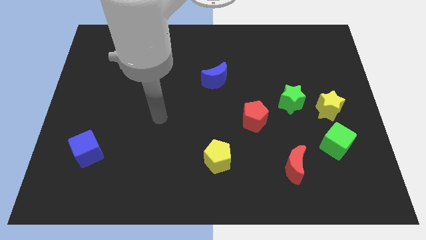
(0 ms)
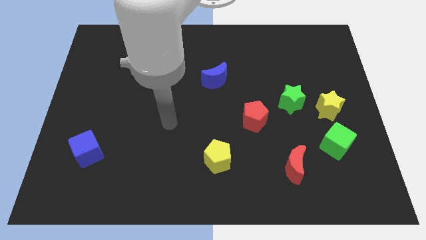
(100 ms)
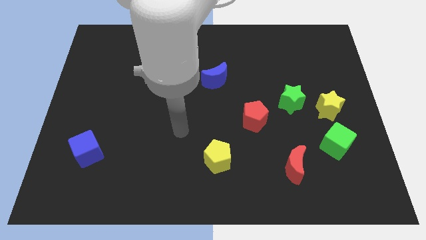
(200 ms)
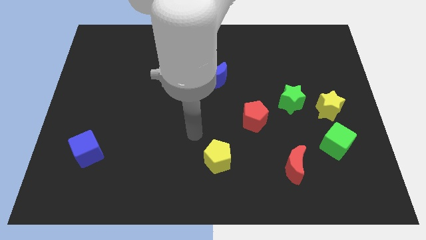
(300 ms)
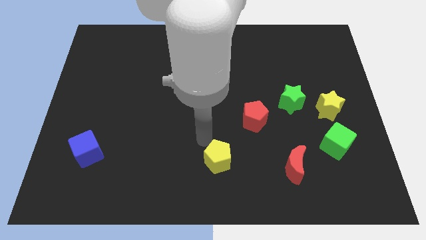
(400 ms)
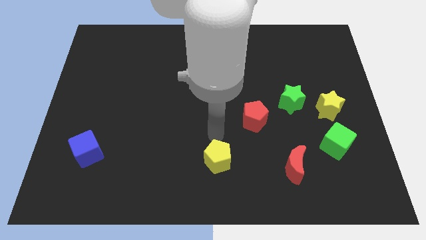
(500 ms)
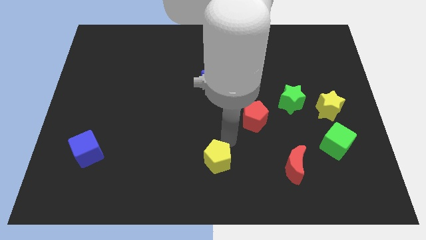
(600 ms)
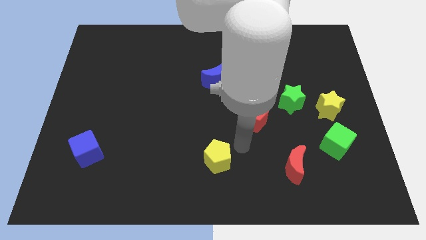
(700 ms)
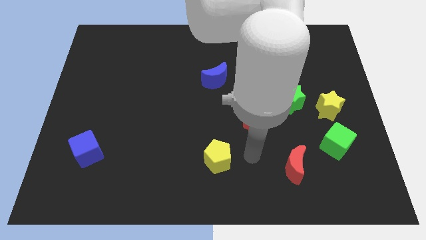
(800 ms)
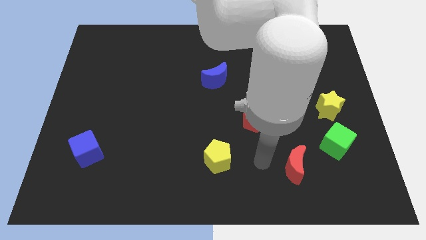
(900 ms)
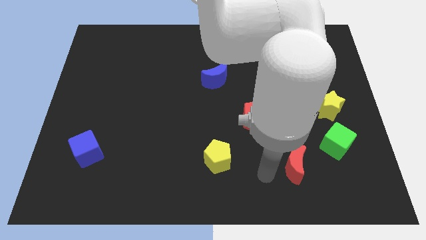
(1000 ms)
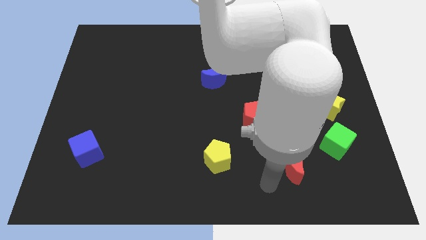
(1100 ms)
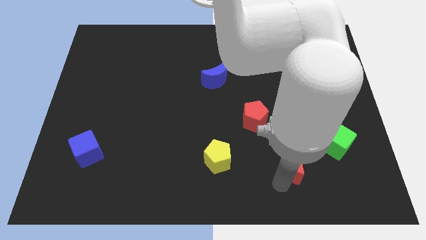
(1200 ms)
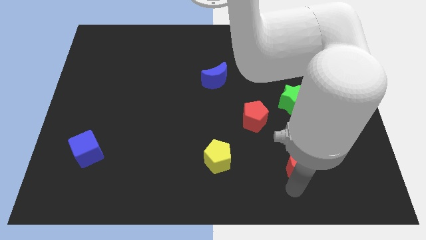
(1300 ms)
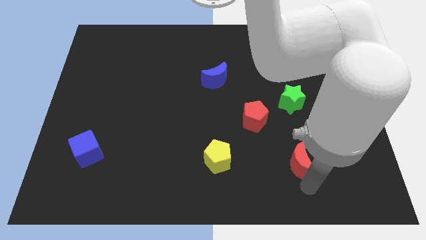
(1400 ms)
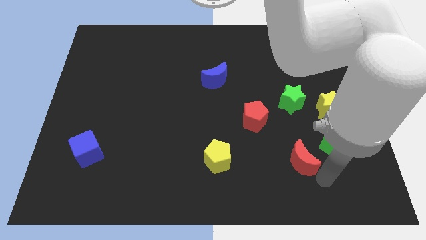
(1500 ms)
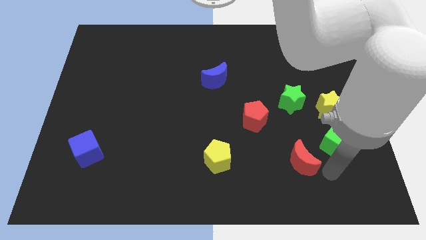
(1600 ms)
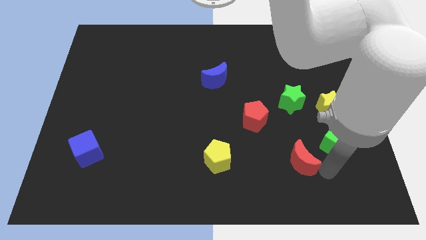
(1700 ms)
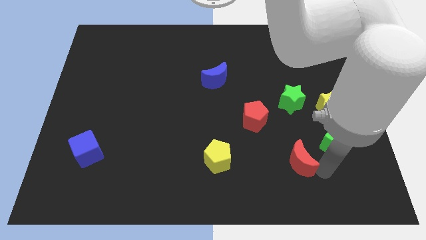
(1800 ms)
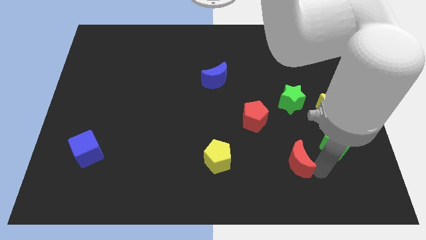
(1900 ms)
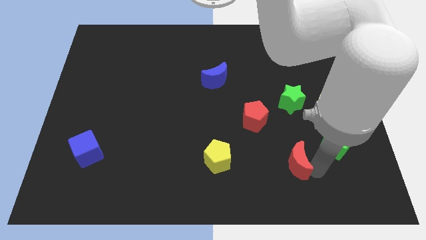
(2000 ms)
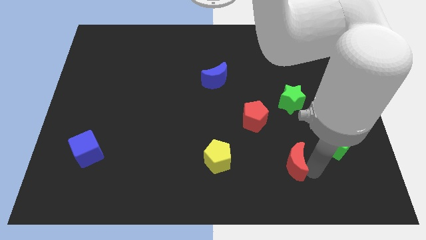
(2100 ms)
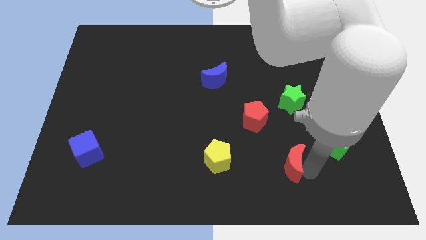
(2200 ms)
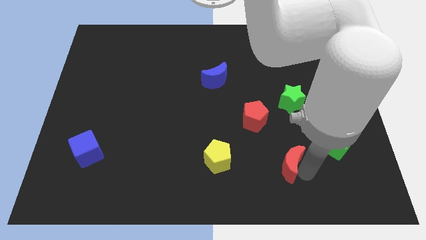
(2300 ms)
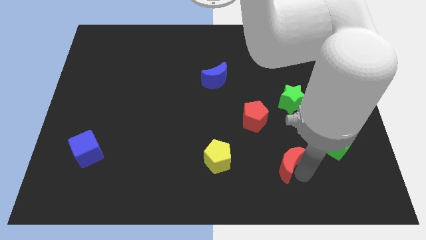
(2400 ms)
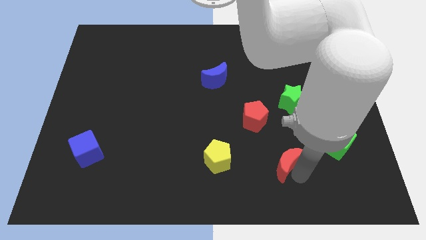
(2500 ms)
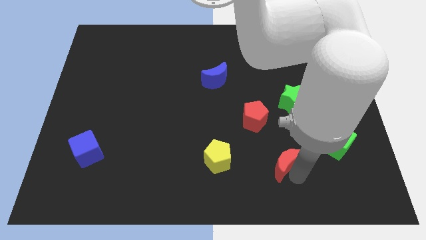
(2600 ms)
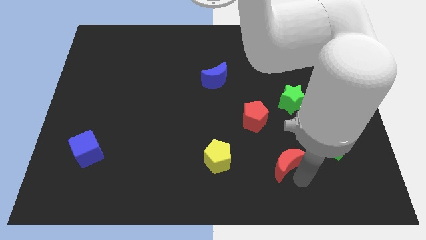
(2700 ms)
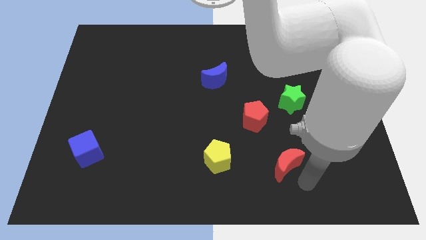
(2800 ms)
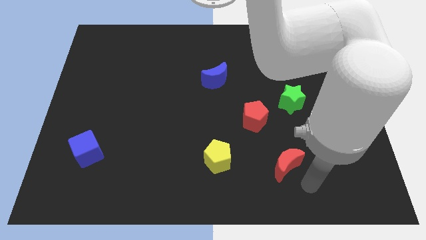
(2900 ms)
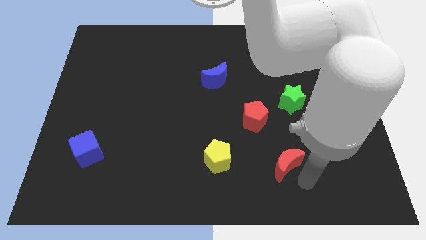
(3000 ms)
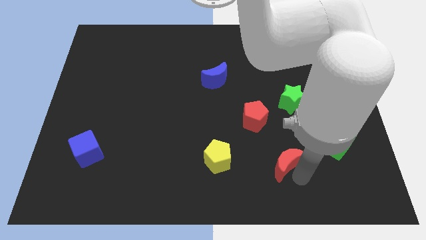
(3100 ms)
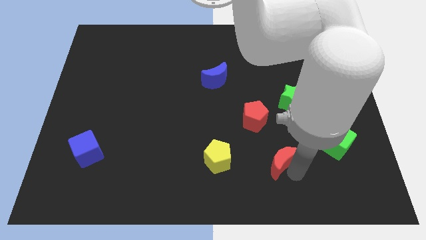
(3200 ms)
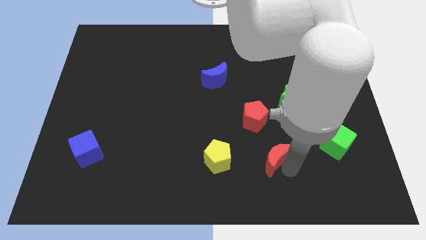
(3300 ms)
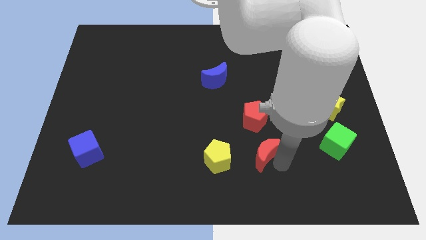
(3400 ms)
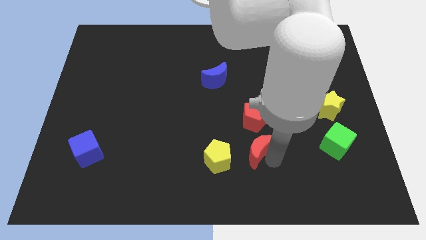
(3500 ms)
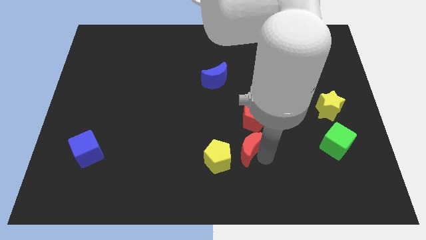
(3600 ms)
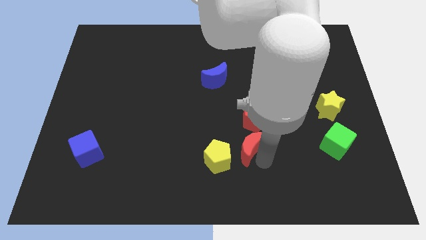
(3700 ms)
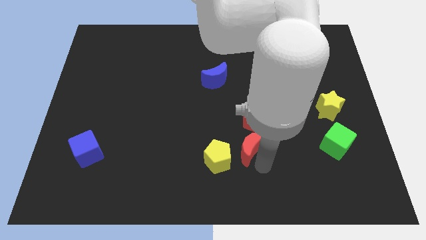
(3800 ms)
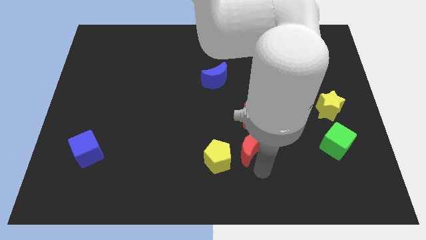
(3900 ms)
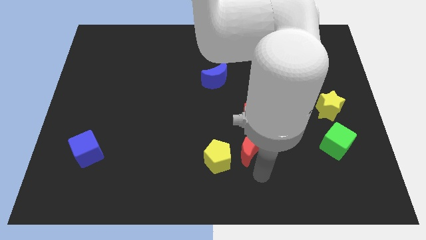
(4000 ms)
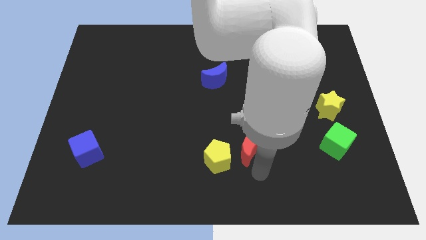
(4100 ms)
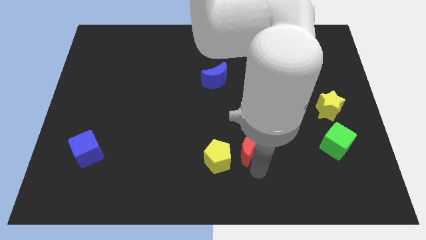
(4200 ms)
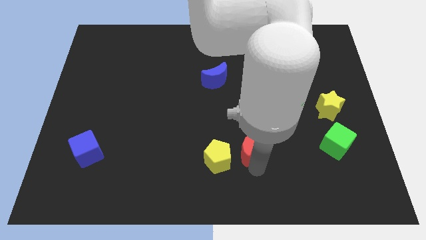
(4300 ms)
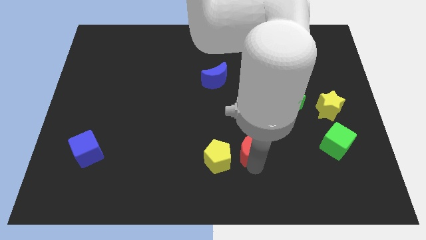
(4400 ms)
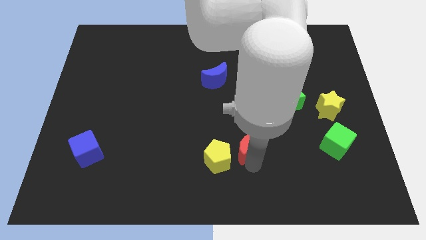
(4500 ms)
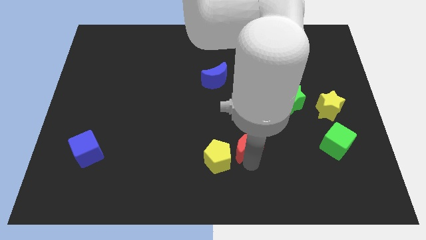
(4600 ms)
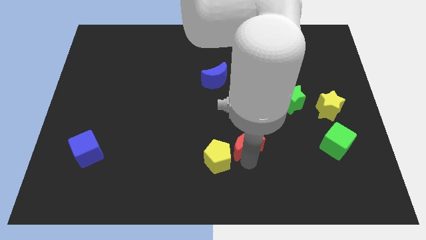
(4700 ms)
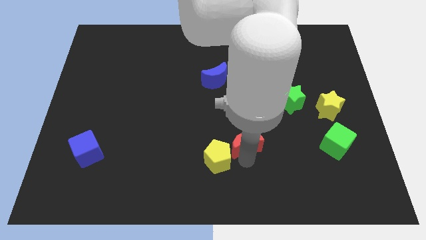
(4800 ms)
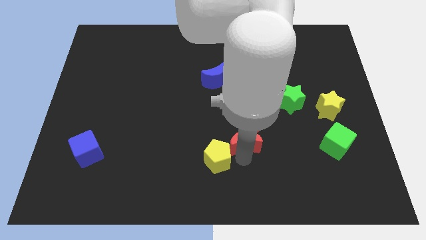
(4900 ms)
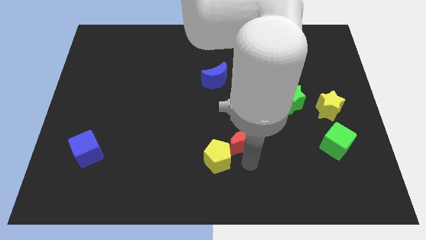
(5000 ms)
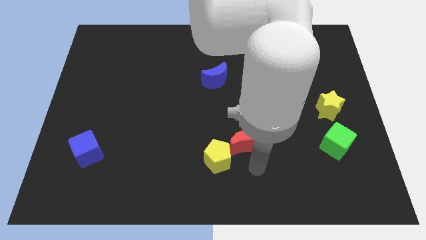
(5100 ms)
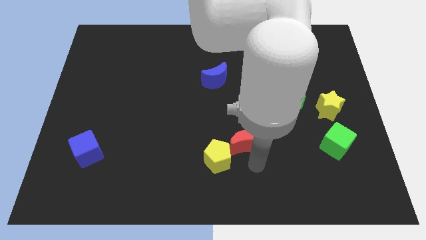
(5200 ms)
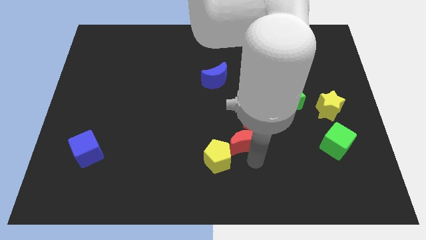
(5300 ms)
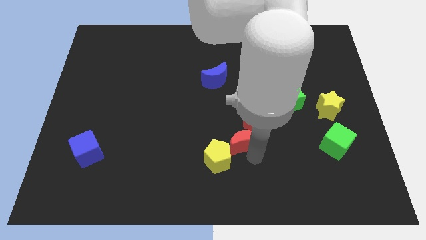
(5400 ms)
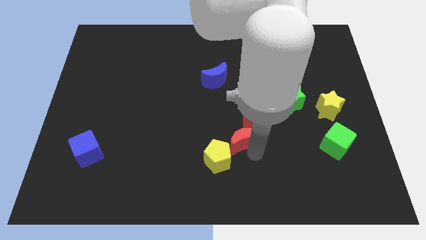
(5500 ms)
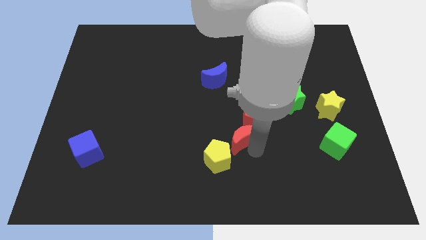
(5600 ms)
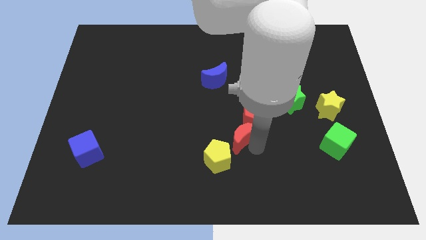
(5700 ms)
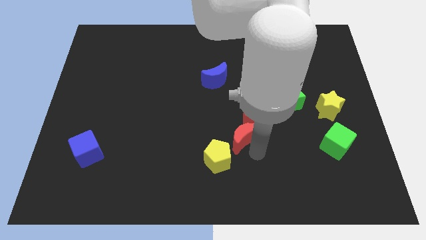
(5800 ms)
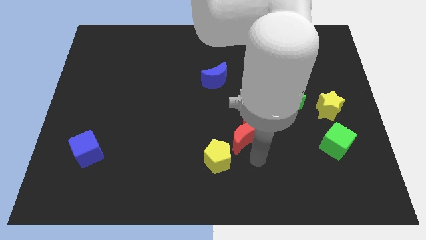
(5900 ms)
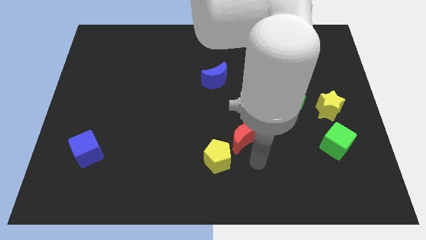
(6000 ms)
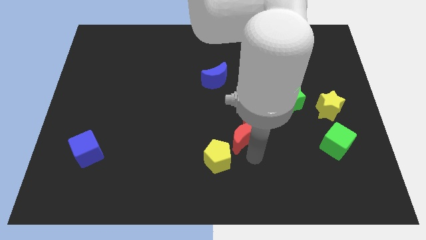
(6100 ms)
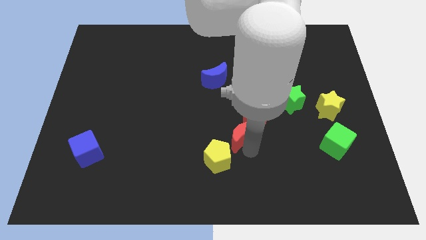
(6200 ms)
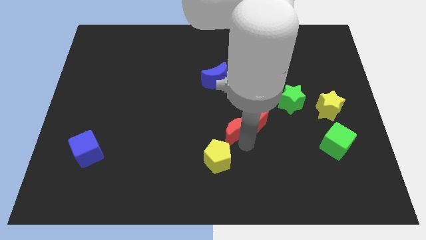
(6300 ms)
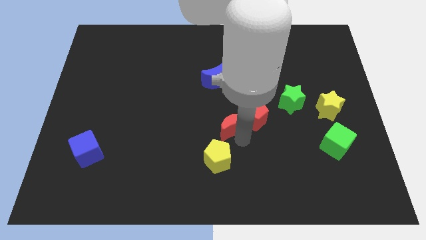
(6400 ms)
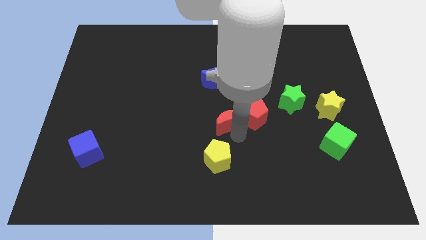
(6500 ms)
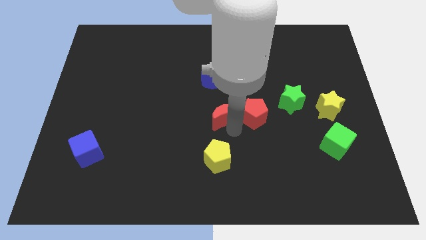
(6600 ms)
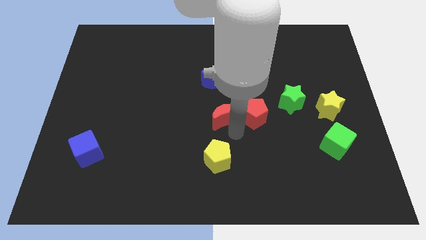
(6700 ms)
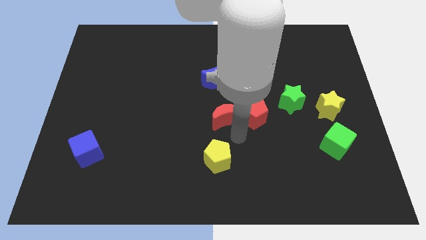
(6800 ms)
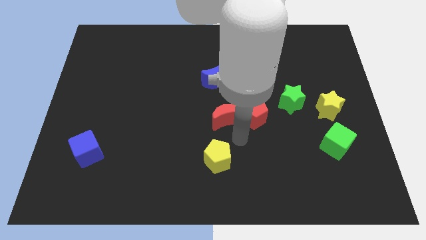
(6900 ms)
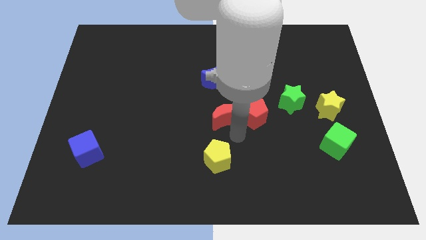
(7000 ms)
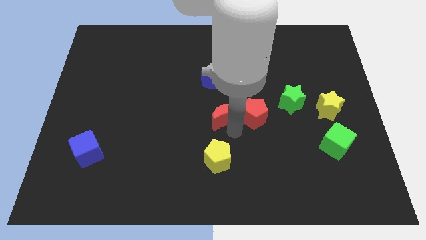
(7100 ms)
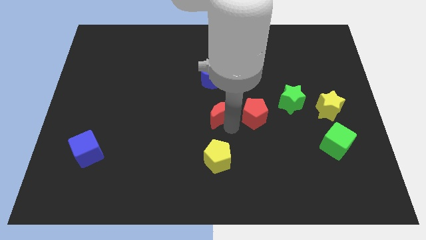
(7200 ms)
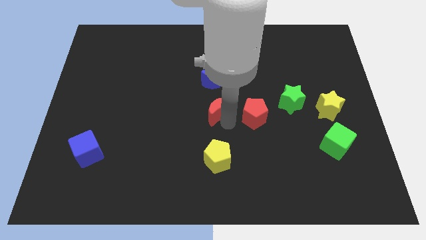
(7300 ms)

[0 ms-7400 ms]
push the red moon up and then left

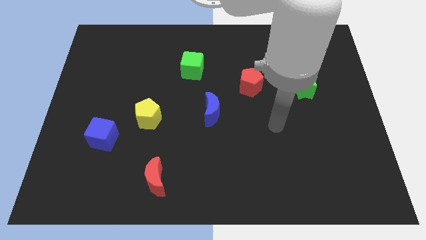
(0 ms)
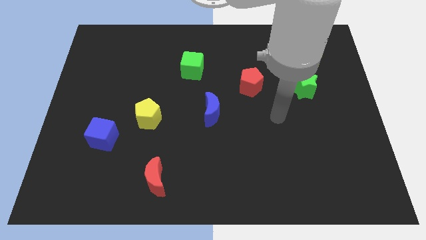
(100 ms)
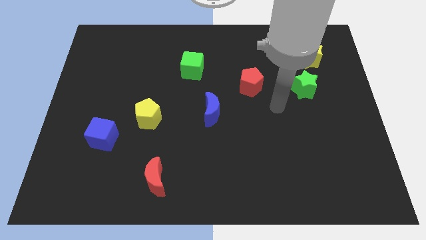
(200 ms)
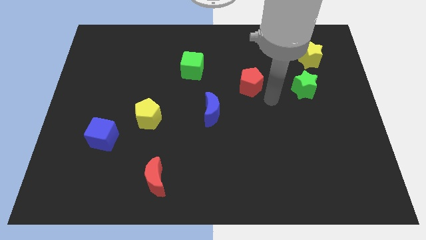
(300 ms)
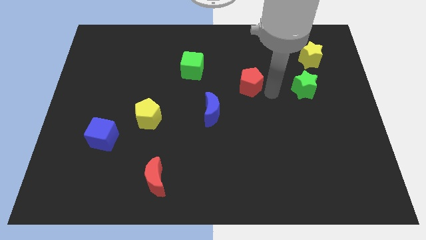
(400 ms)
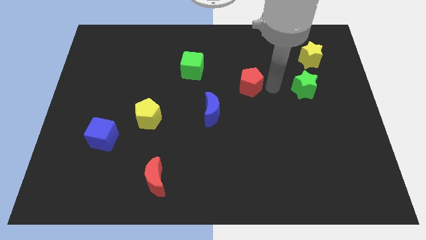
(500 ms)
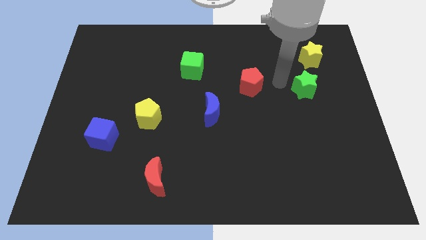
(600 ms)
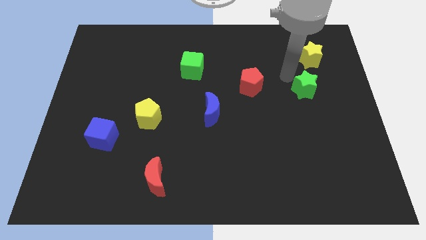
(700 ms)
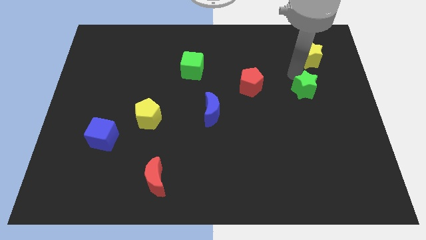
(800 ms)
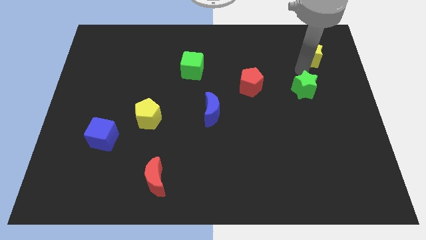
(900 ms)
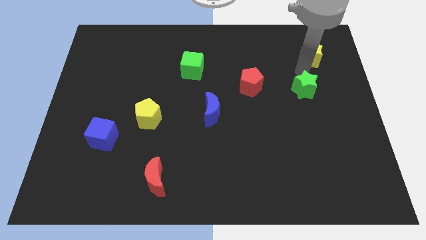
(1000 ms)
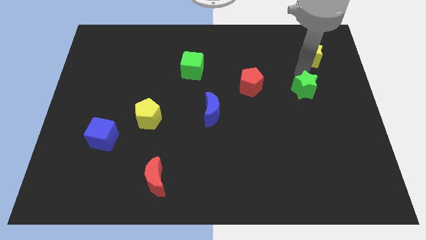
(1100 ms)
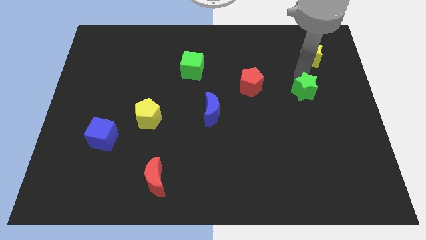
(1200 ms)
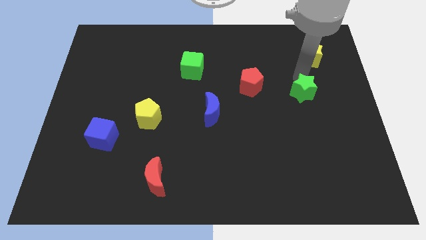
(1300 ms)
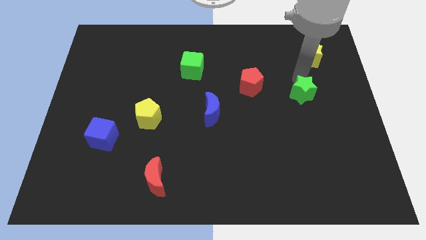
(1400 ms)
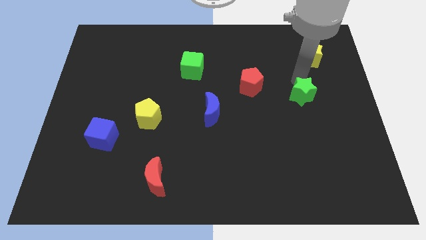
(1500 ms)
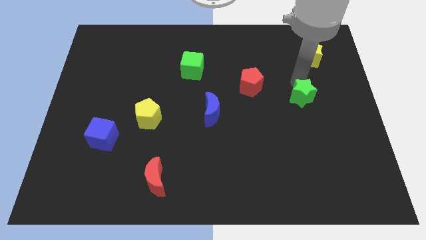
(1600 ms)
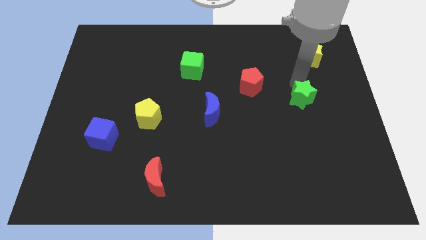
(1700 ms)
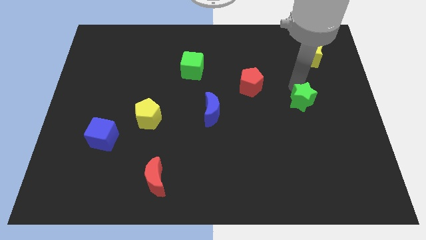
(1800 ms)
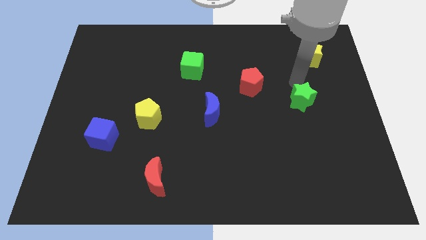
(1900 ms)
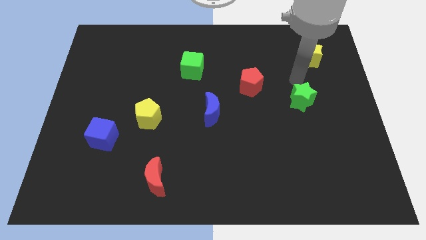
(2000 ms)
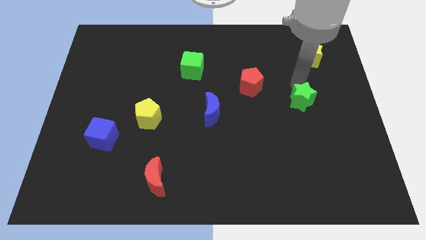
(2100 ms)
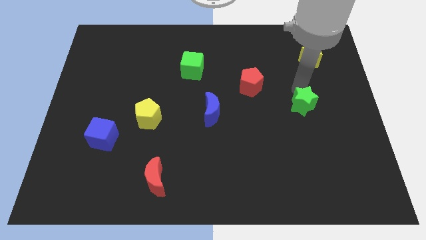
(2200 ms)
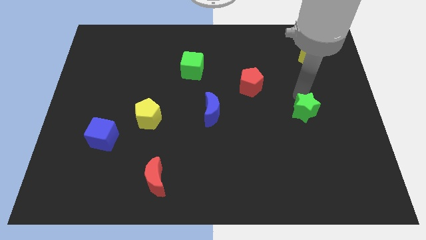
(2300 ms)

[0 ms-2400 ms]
slide the green star downwards a little
